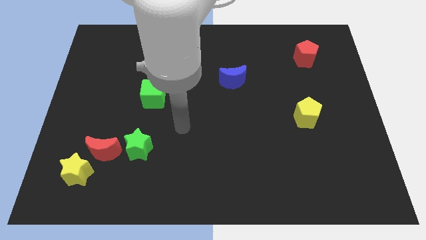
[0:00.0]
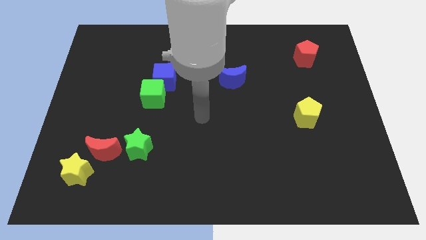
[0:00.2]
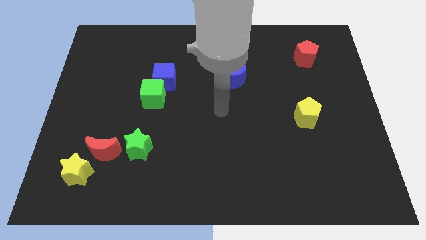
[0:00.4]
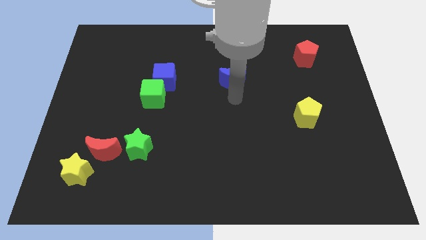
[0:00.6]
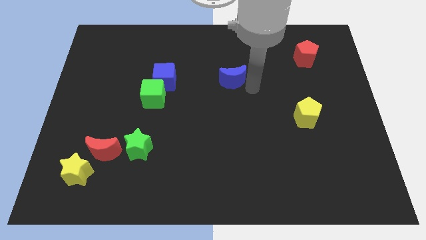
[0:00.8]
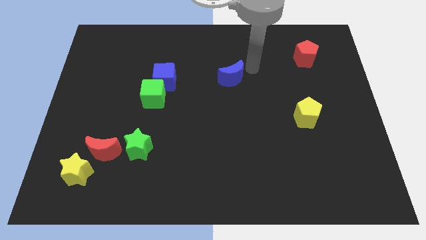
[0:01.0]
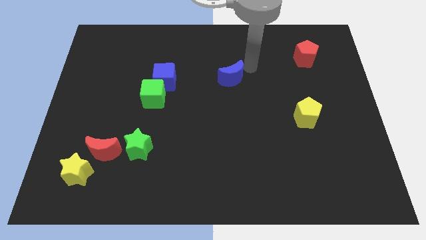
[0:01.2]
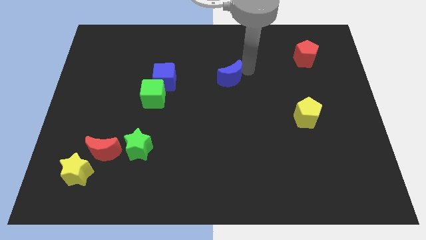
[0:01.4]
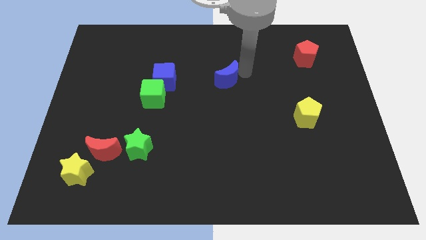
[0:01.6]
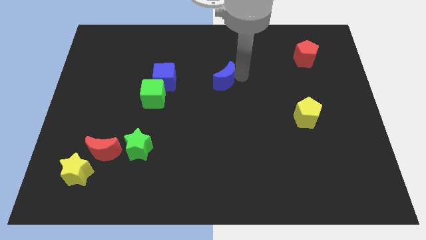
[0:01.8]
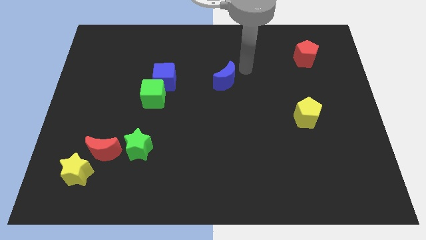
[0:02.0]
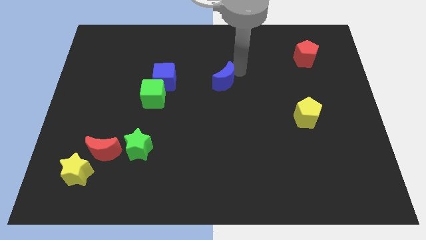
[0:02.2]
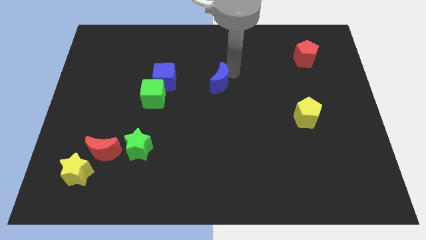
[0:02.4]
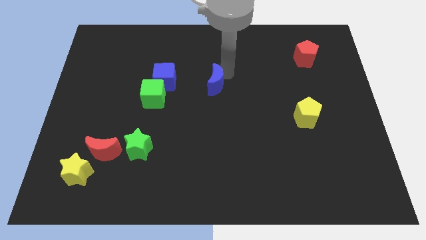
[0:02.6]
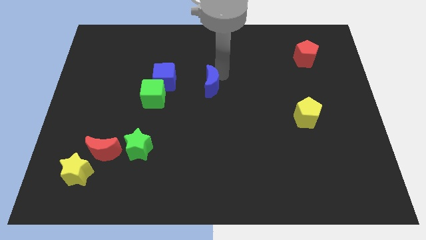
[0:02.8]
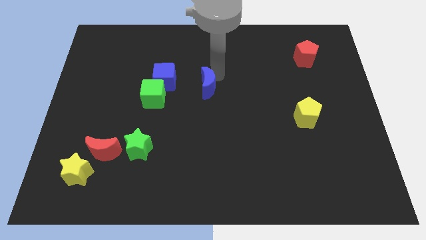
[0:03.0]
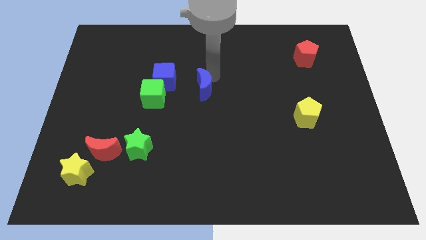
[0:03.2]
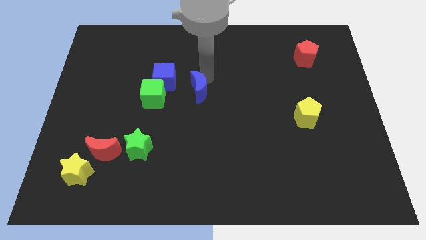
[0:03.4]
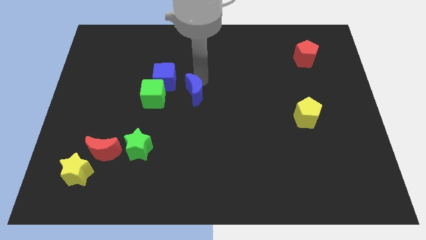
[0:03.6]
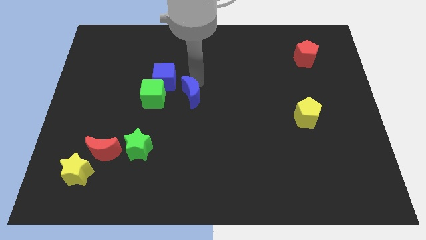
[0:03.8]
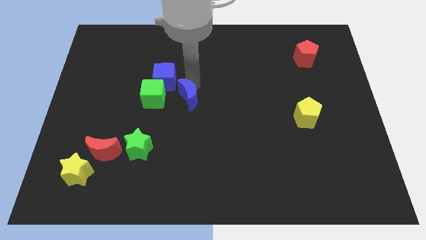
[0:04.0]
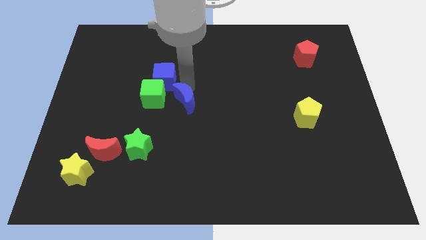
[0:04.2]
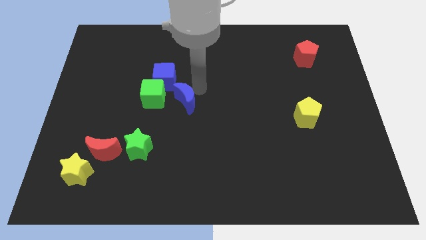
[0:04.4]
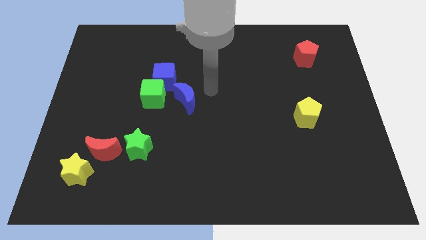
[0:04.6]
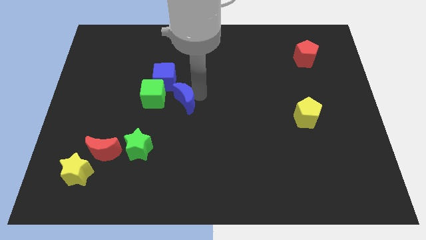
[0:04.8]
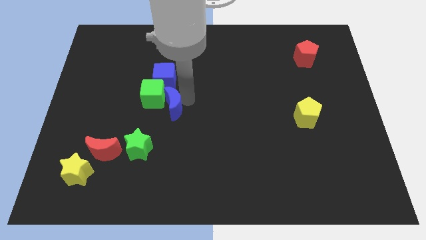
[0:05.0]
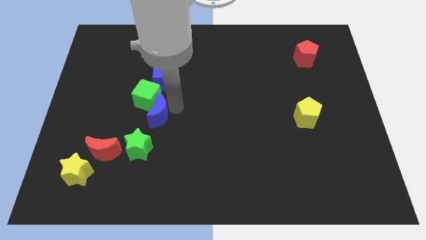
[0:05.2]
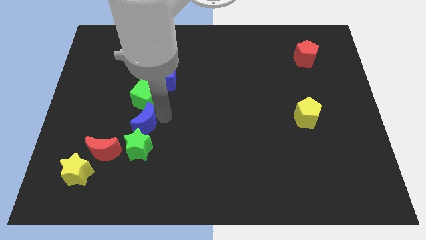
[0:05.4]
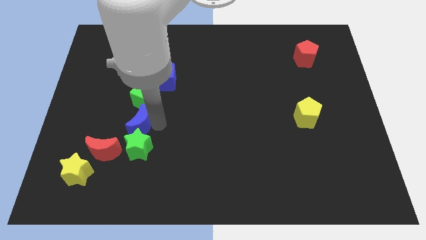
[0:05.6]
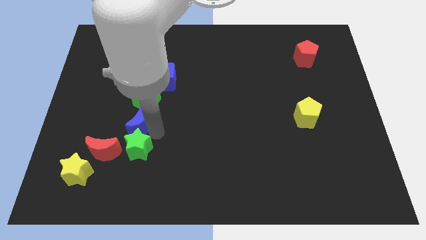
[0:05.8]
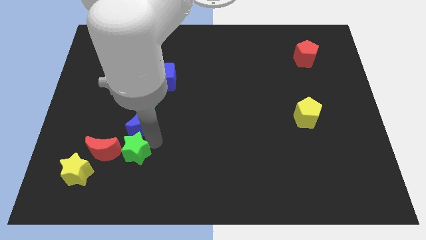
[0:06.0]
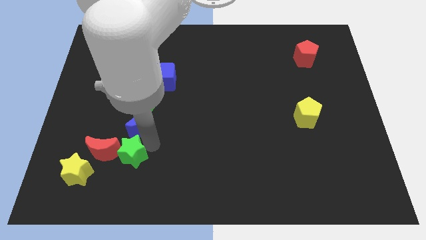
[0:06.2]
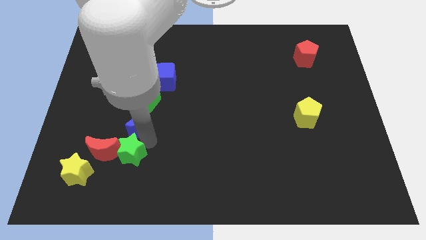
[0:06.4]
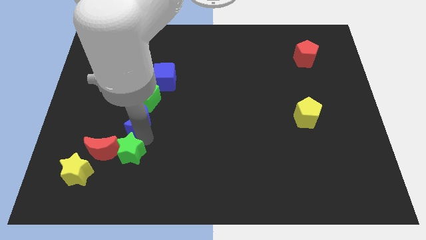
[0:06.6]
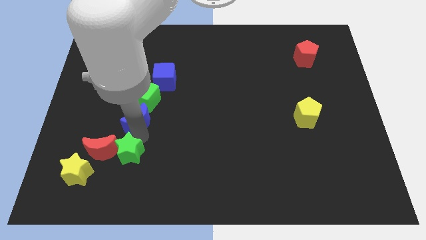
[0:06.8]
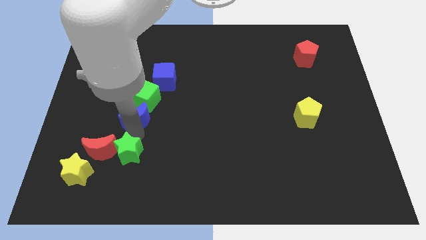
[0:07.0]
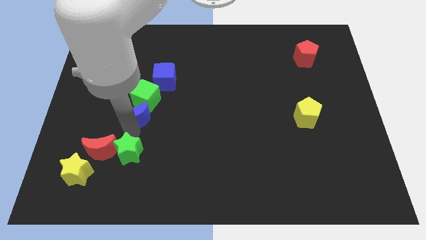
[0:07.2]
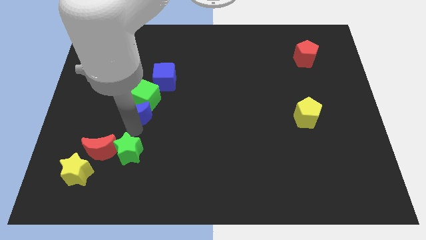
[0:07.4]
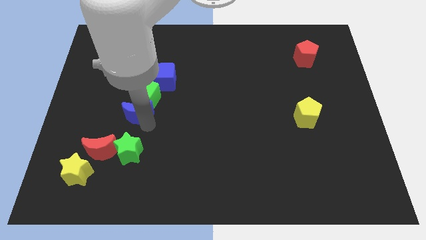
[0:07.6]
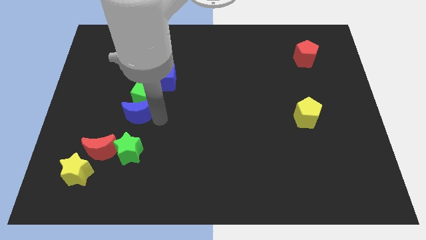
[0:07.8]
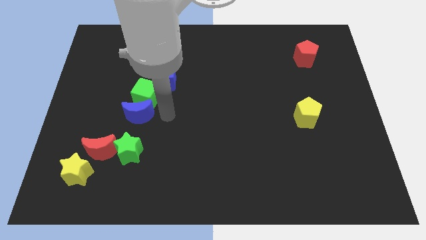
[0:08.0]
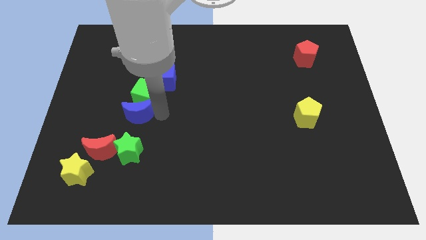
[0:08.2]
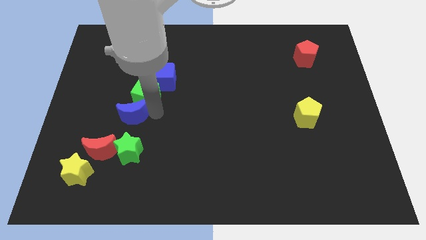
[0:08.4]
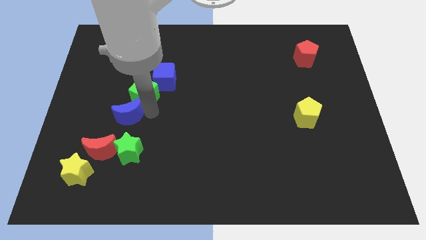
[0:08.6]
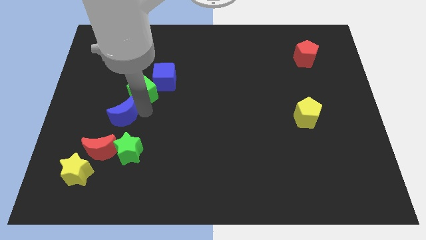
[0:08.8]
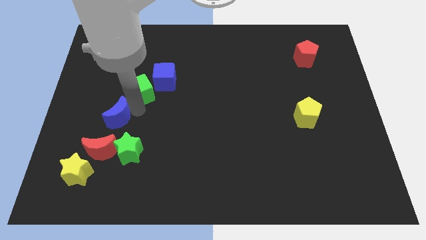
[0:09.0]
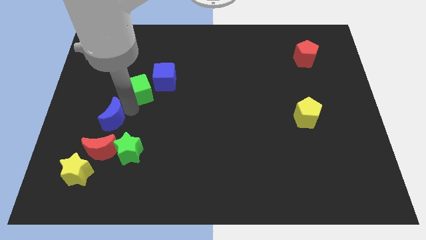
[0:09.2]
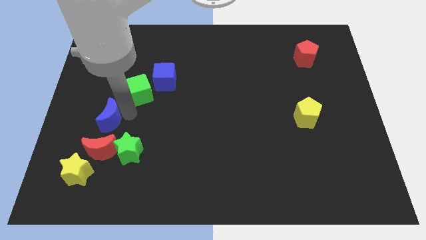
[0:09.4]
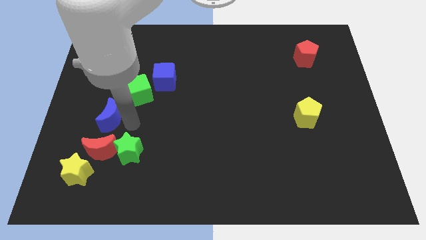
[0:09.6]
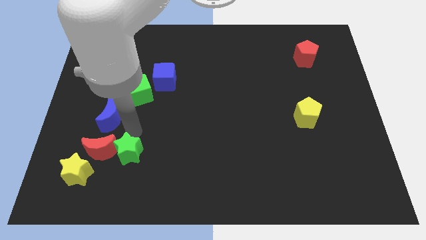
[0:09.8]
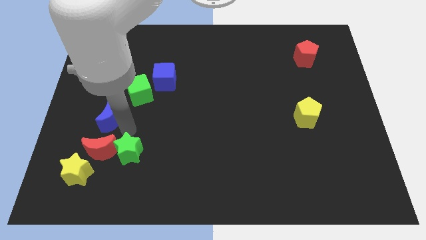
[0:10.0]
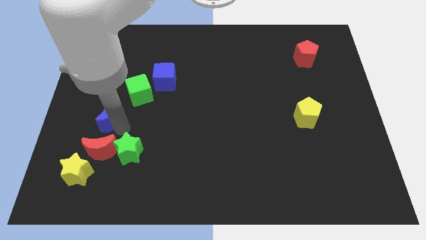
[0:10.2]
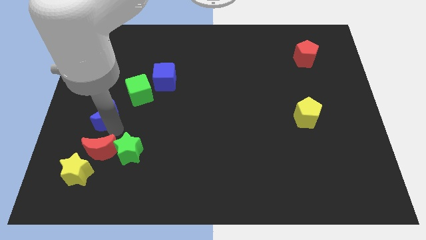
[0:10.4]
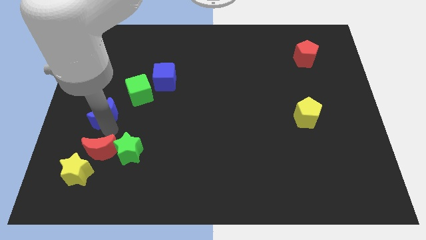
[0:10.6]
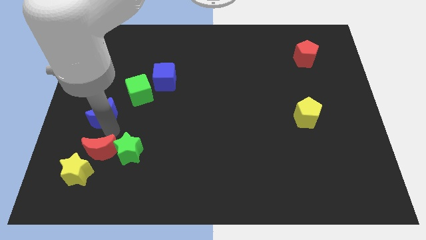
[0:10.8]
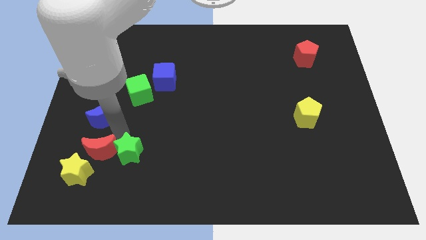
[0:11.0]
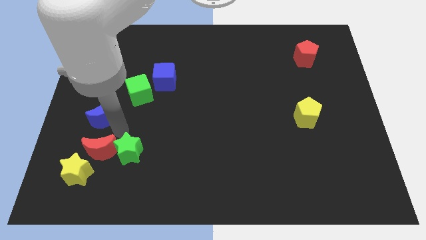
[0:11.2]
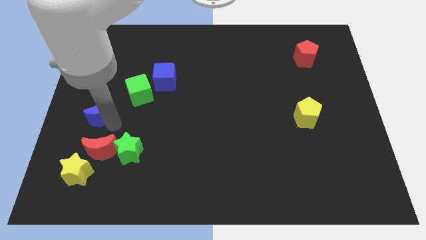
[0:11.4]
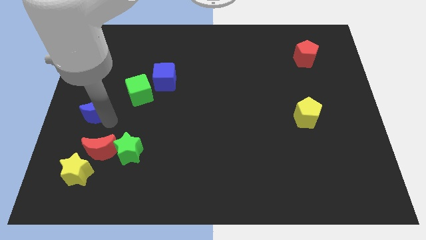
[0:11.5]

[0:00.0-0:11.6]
push the blue moon to the left side of the board
